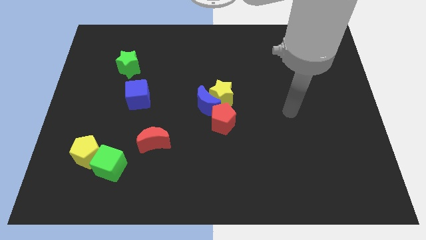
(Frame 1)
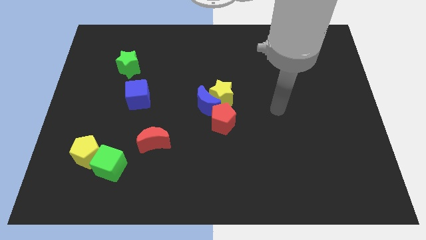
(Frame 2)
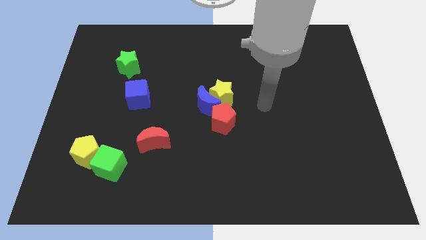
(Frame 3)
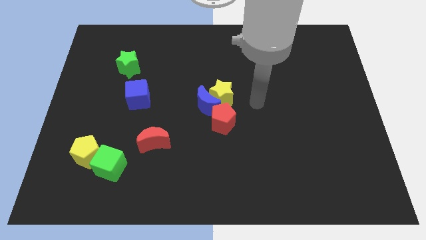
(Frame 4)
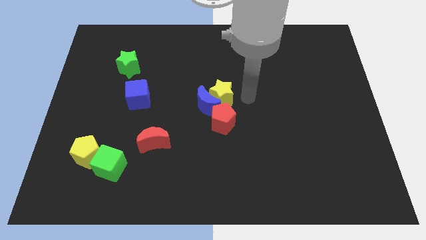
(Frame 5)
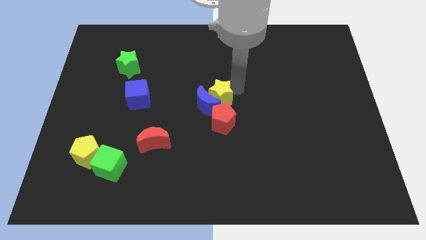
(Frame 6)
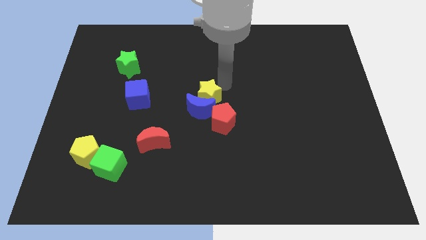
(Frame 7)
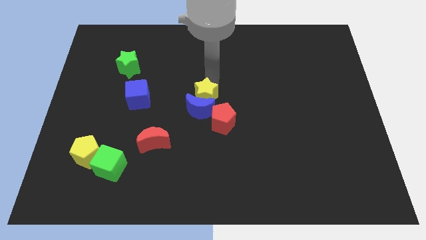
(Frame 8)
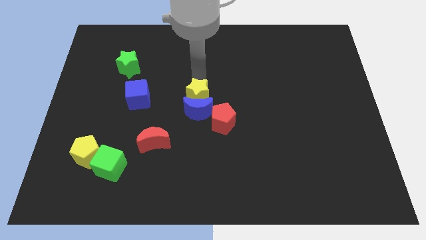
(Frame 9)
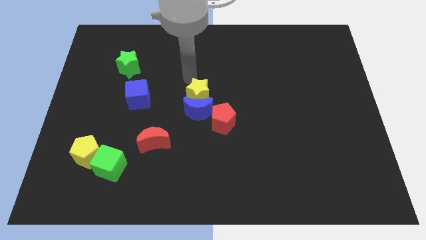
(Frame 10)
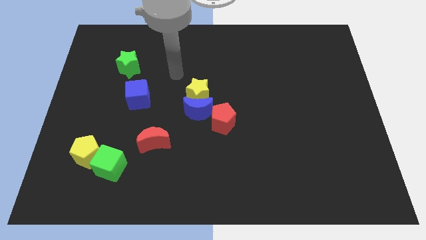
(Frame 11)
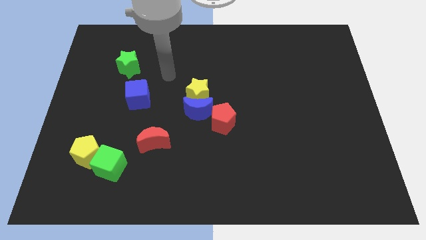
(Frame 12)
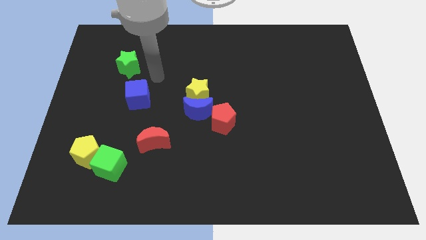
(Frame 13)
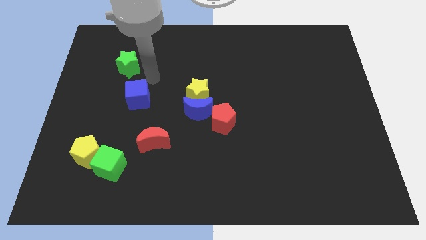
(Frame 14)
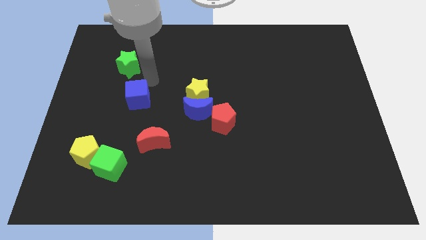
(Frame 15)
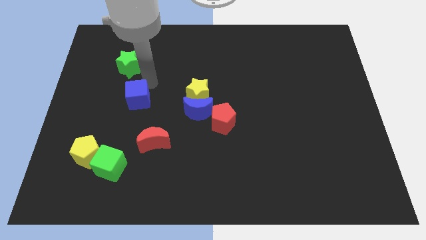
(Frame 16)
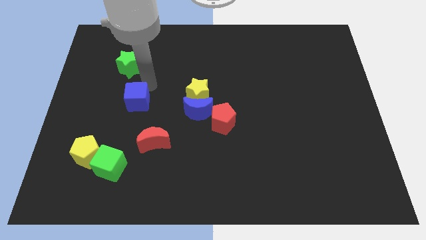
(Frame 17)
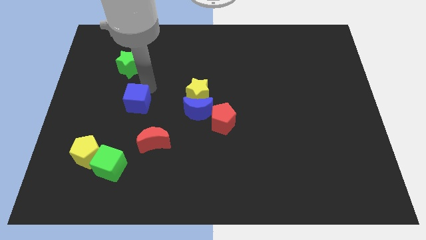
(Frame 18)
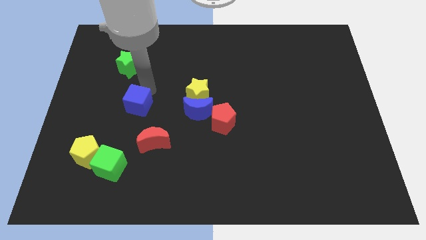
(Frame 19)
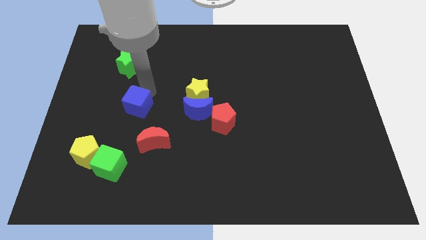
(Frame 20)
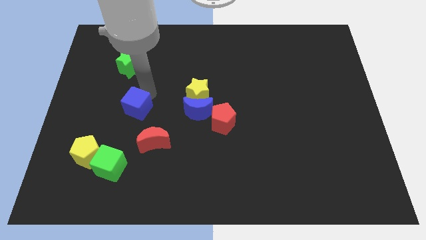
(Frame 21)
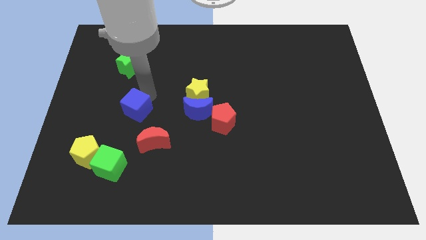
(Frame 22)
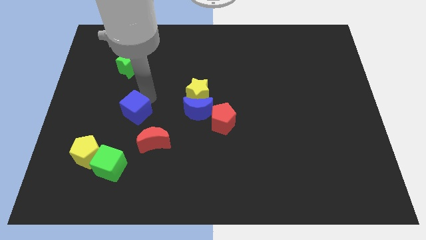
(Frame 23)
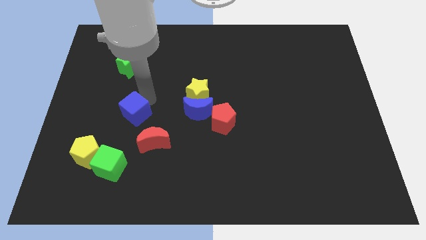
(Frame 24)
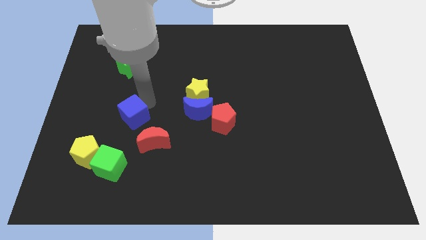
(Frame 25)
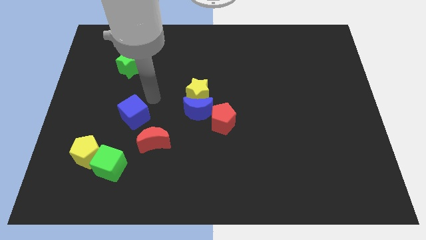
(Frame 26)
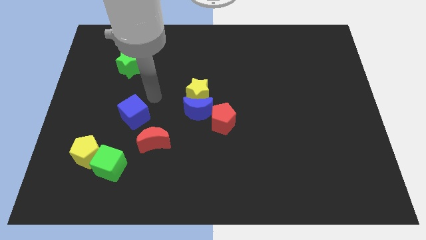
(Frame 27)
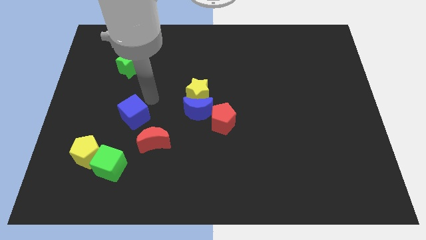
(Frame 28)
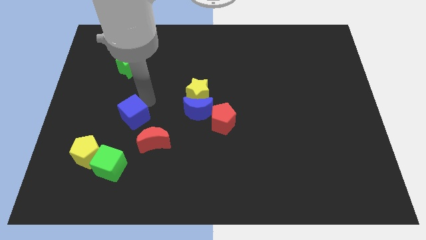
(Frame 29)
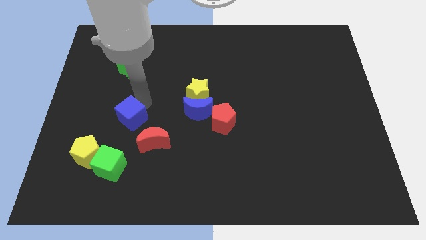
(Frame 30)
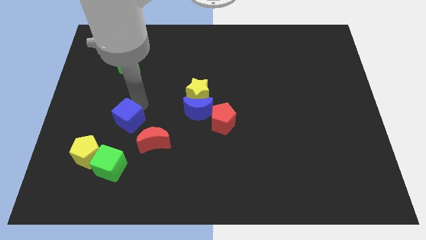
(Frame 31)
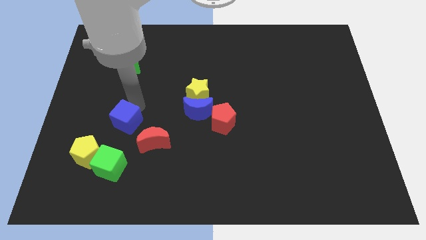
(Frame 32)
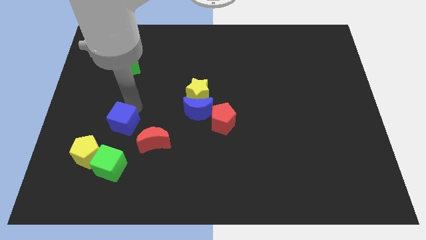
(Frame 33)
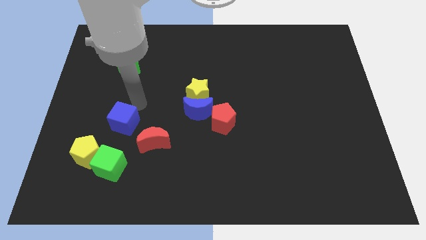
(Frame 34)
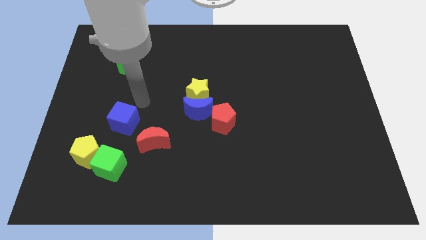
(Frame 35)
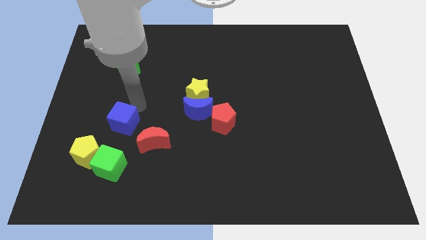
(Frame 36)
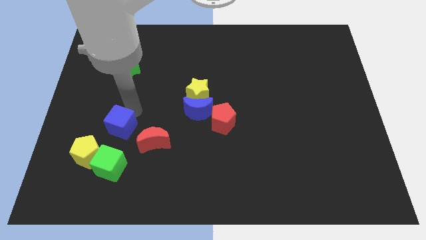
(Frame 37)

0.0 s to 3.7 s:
put the blue cube to the left side of the red moon

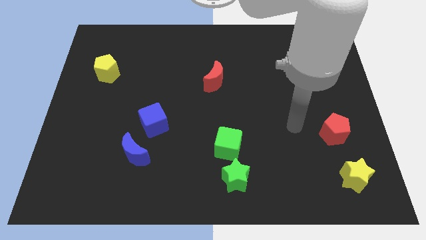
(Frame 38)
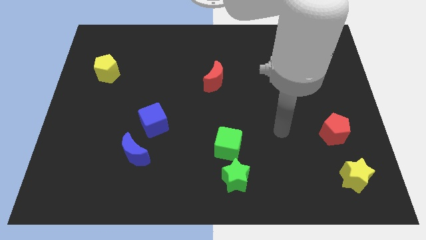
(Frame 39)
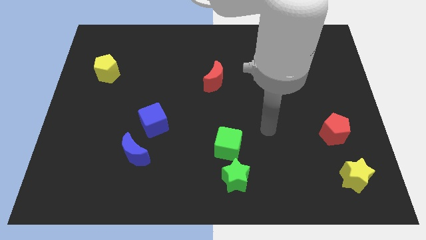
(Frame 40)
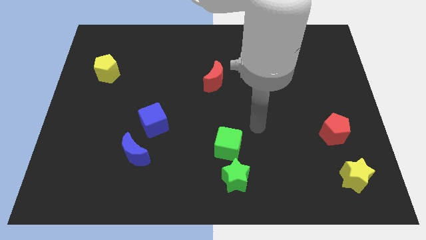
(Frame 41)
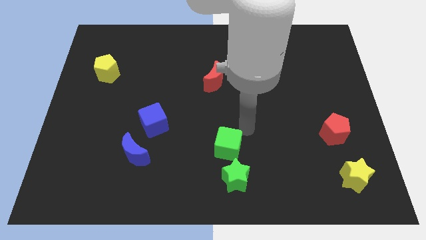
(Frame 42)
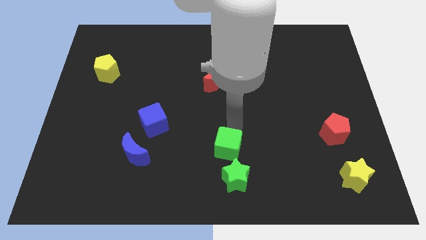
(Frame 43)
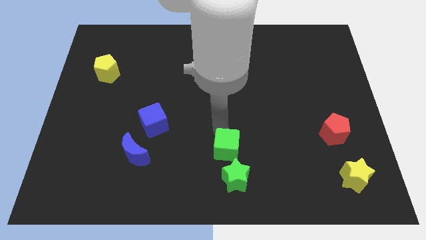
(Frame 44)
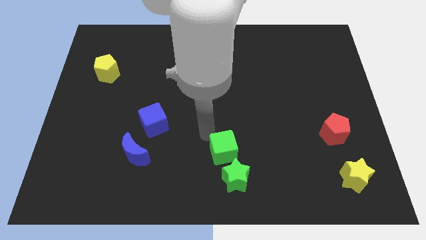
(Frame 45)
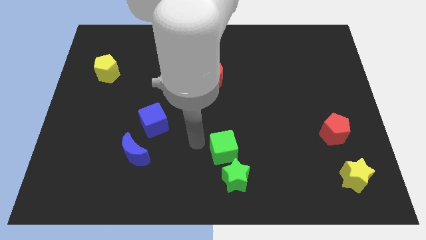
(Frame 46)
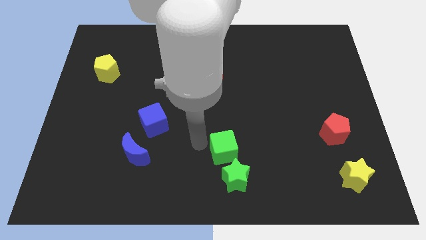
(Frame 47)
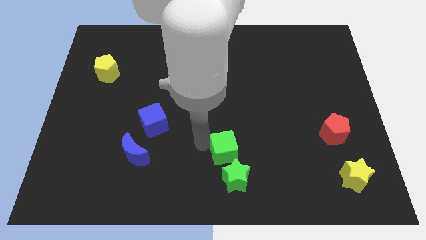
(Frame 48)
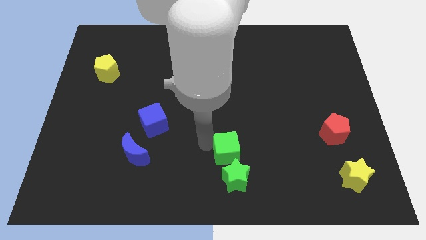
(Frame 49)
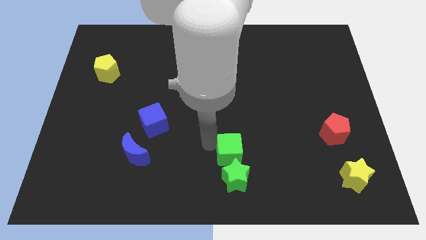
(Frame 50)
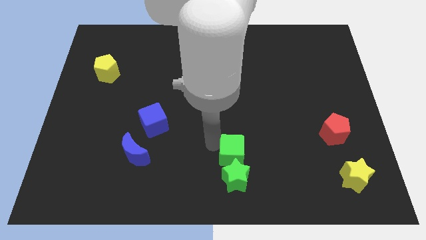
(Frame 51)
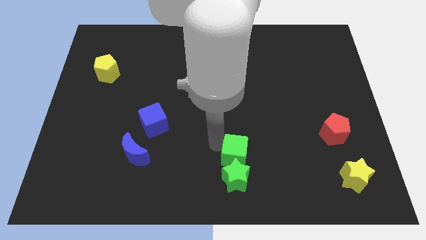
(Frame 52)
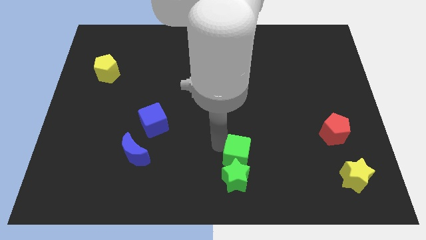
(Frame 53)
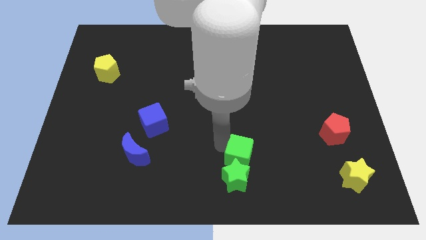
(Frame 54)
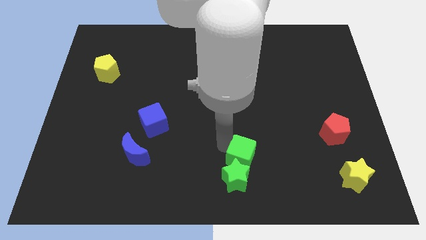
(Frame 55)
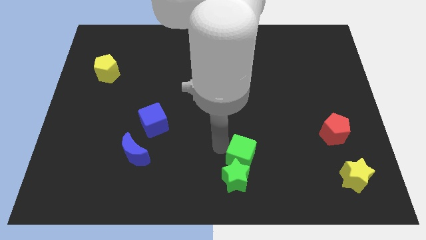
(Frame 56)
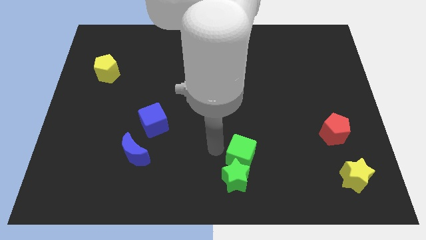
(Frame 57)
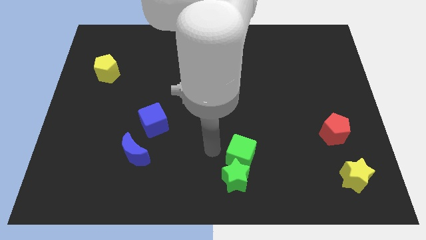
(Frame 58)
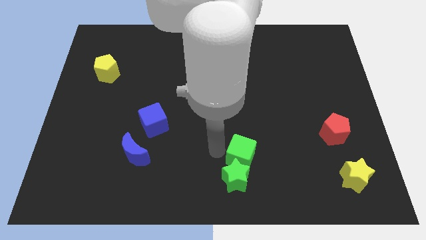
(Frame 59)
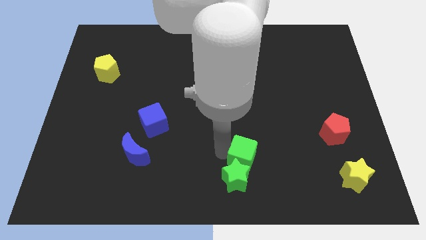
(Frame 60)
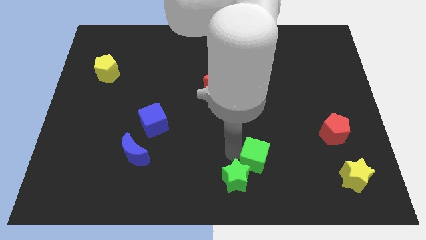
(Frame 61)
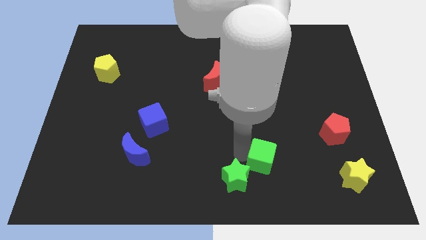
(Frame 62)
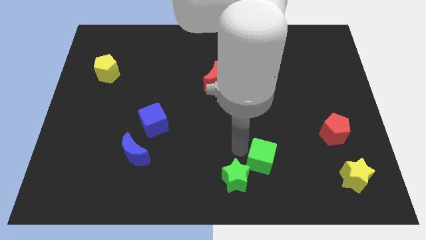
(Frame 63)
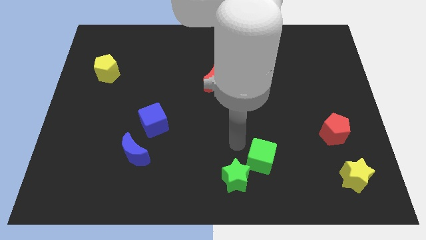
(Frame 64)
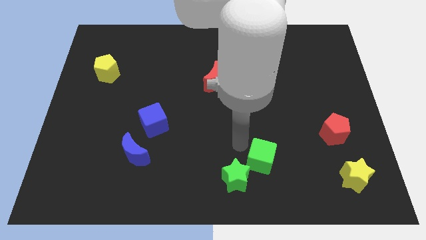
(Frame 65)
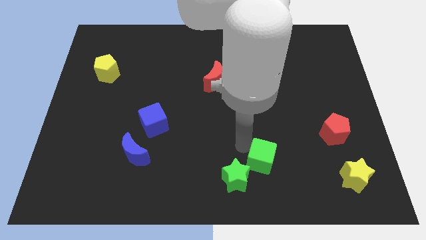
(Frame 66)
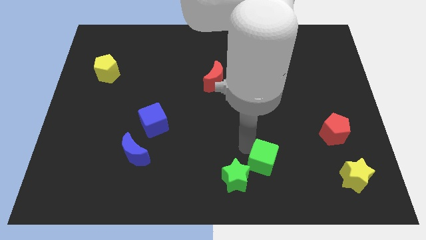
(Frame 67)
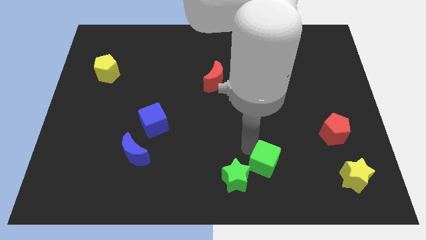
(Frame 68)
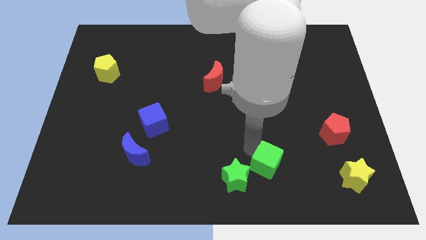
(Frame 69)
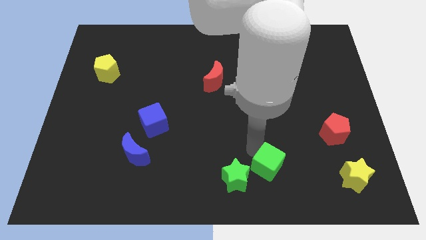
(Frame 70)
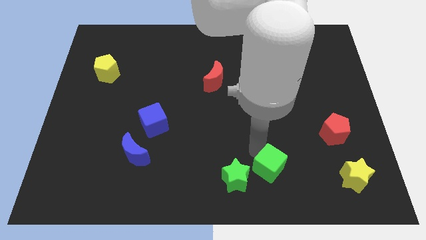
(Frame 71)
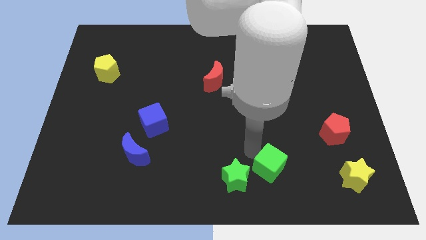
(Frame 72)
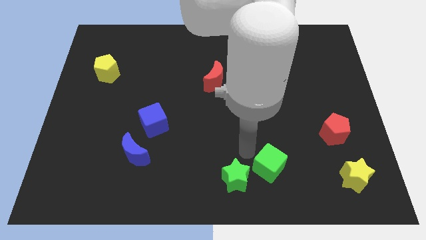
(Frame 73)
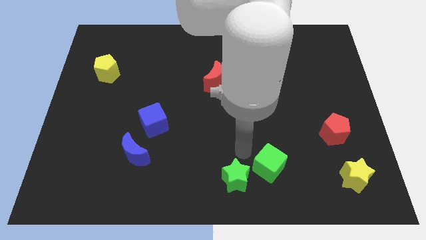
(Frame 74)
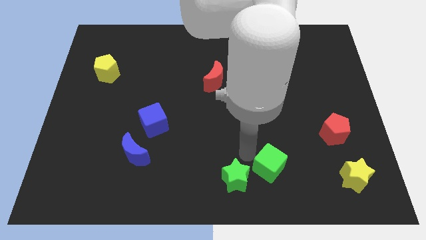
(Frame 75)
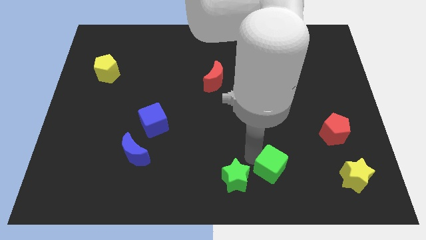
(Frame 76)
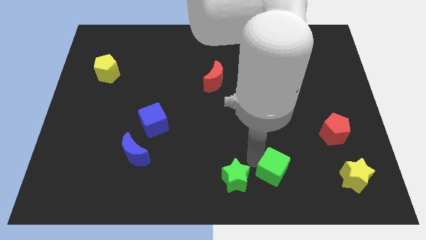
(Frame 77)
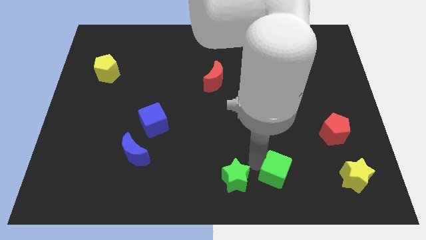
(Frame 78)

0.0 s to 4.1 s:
push the green cube to the left of the yellow star

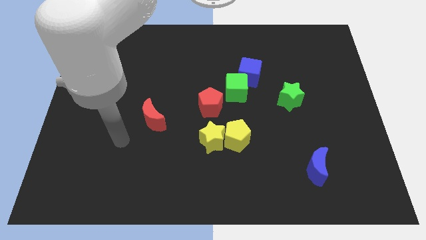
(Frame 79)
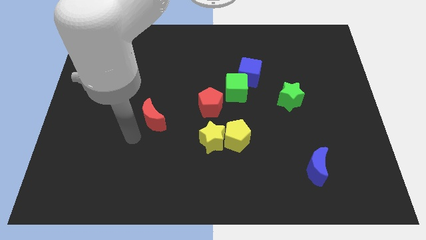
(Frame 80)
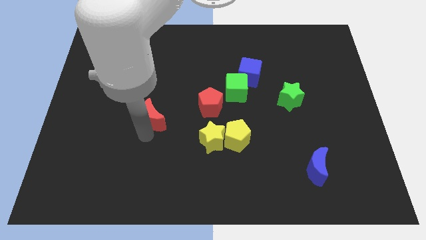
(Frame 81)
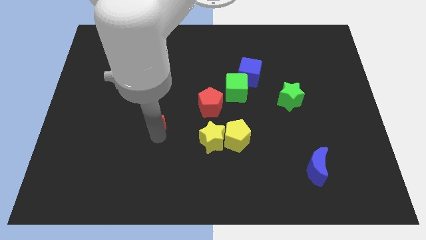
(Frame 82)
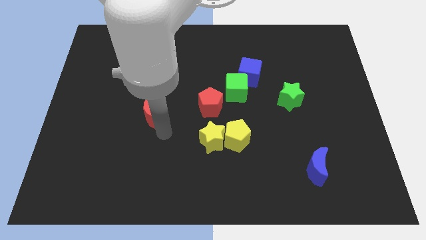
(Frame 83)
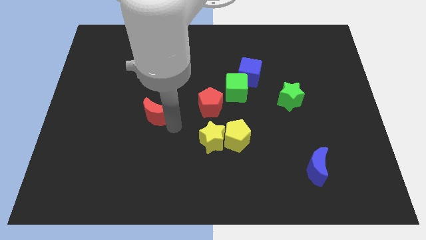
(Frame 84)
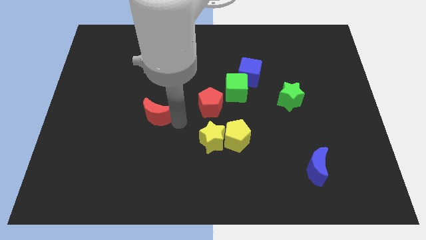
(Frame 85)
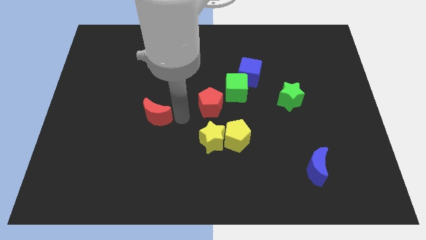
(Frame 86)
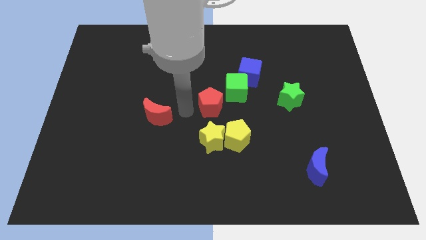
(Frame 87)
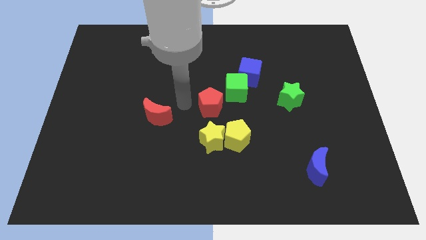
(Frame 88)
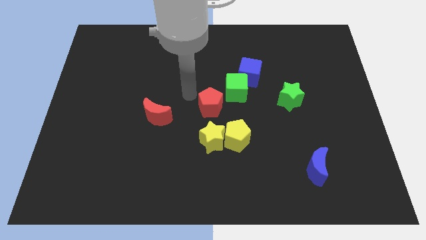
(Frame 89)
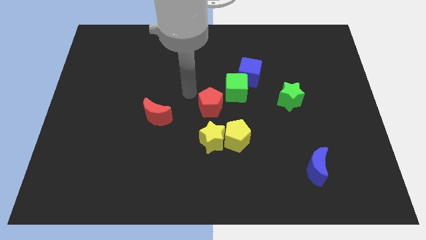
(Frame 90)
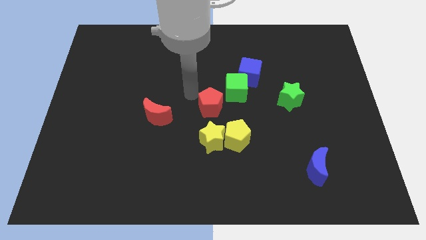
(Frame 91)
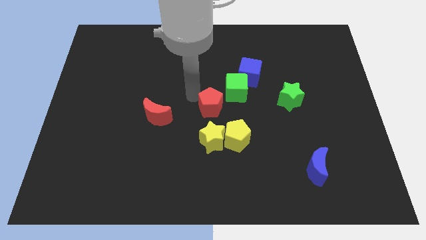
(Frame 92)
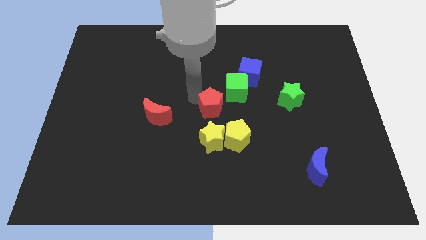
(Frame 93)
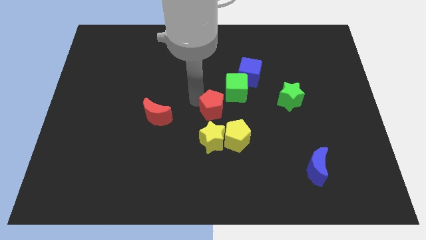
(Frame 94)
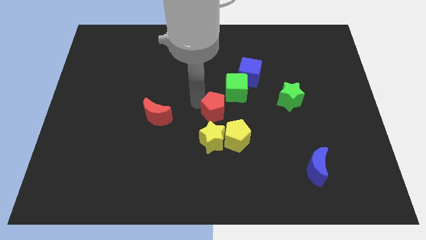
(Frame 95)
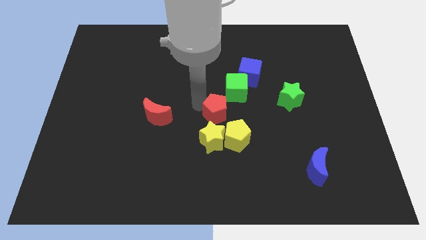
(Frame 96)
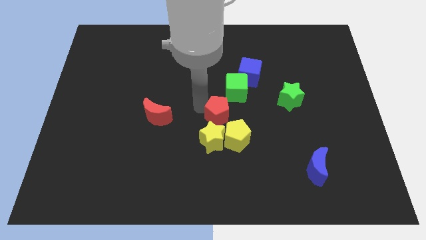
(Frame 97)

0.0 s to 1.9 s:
slide the red pentagon diagonally up and to the right of the yellow star
